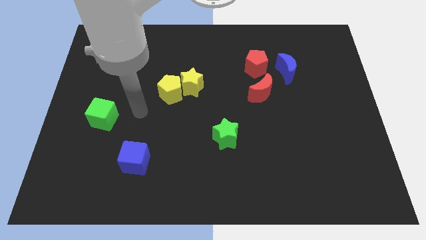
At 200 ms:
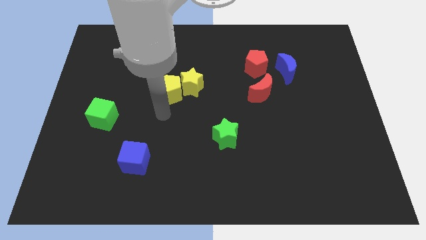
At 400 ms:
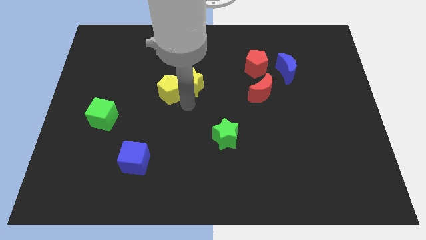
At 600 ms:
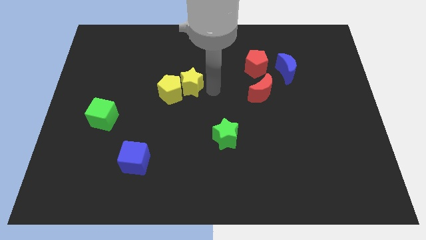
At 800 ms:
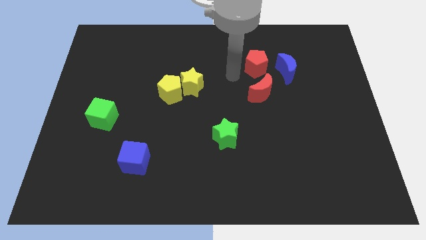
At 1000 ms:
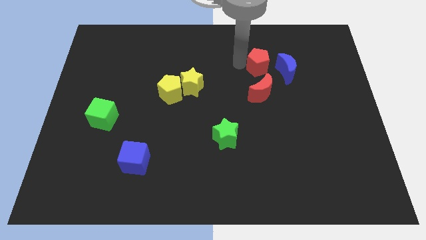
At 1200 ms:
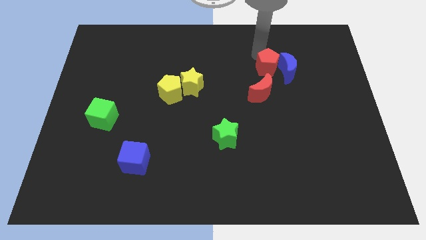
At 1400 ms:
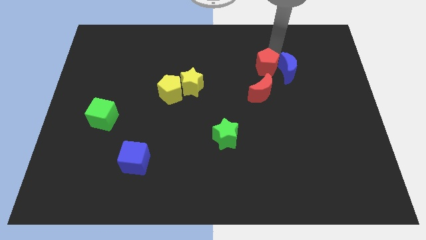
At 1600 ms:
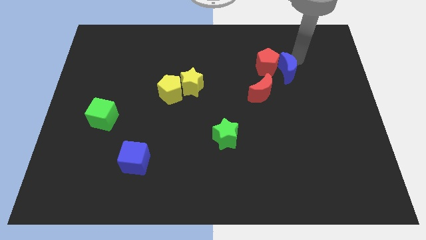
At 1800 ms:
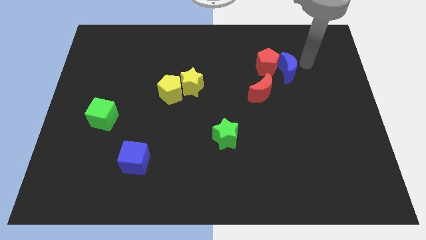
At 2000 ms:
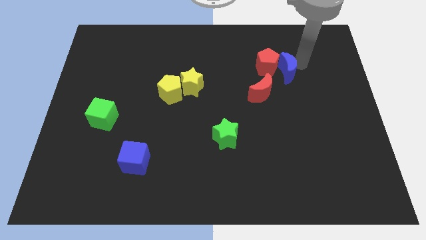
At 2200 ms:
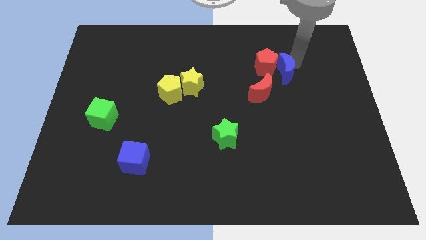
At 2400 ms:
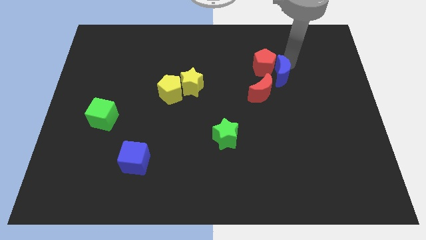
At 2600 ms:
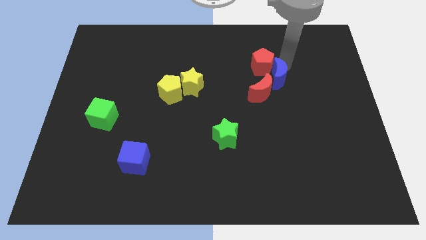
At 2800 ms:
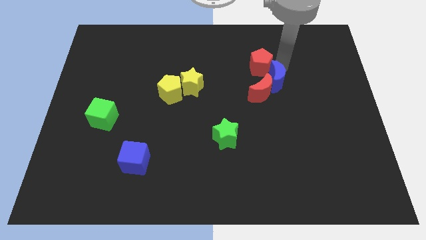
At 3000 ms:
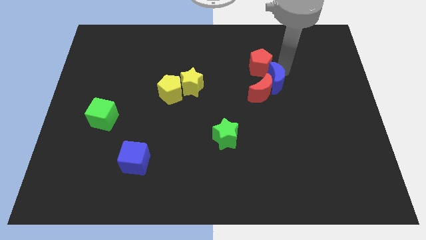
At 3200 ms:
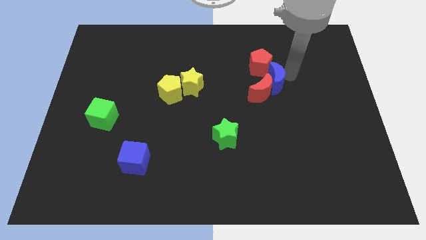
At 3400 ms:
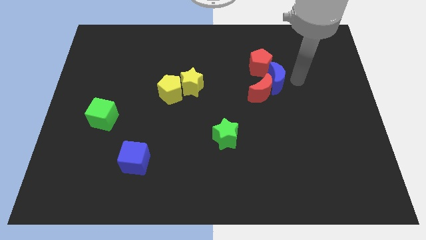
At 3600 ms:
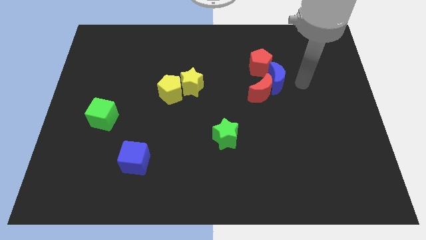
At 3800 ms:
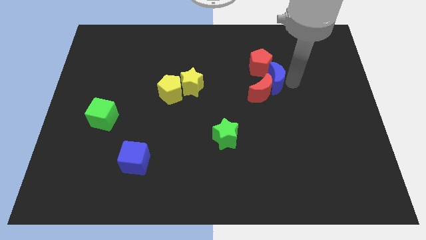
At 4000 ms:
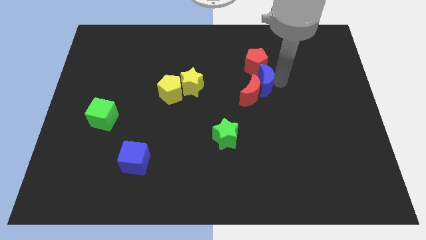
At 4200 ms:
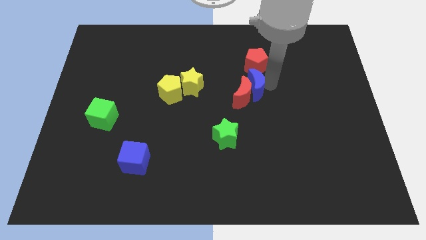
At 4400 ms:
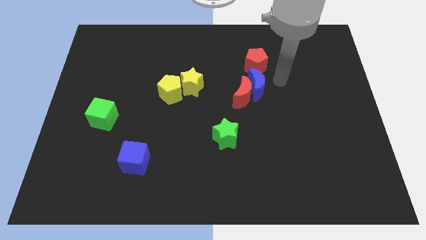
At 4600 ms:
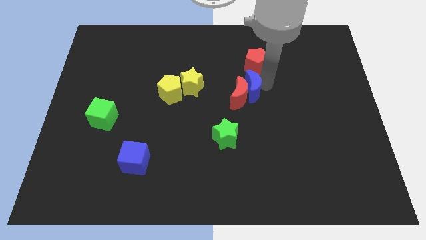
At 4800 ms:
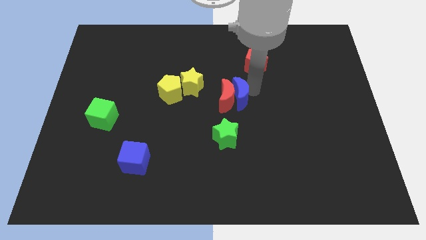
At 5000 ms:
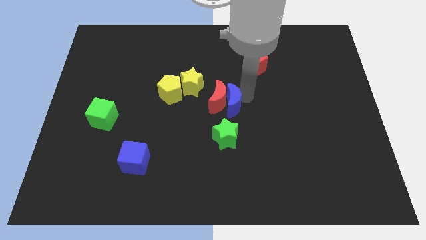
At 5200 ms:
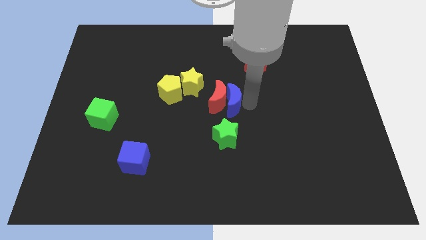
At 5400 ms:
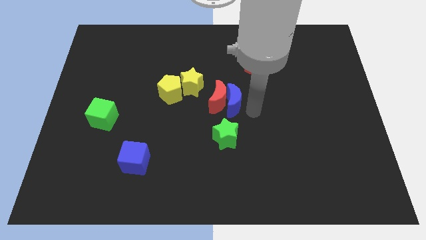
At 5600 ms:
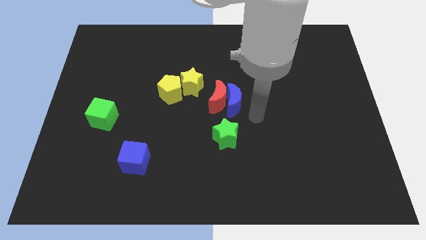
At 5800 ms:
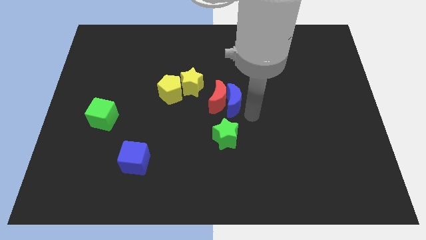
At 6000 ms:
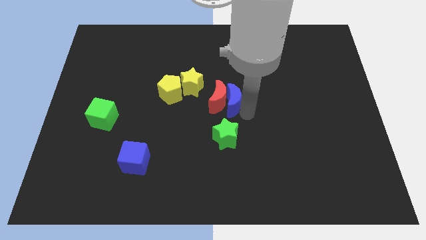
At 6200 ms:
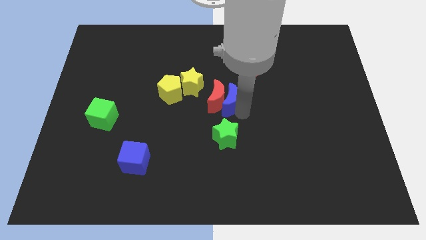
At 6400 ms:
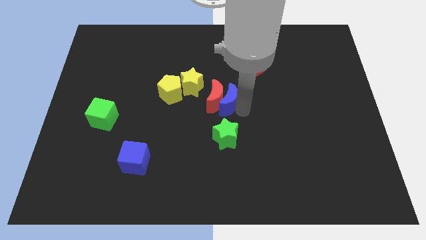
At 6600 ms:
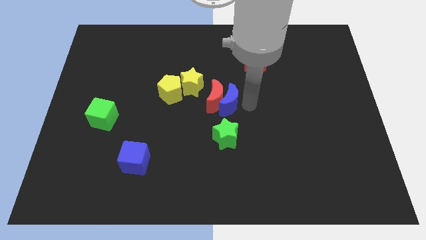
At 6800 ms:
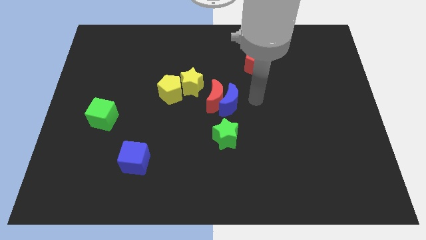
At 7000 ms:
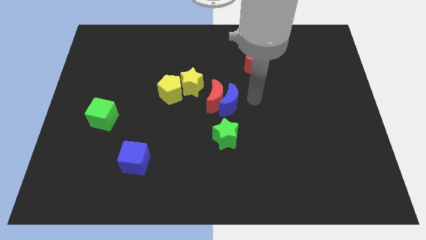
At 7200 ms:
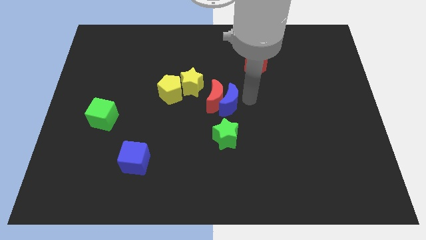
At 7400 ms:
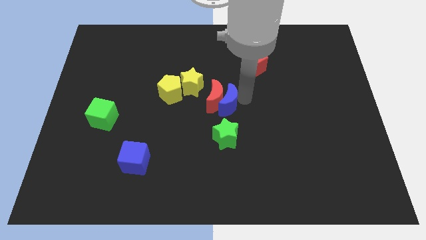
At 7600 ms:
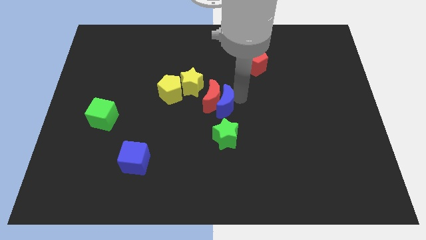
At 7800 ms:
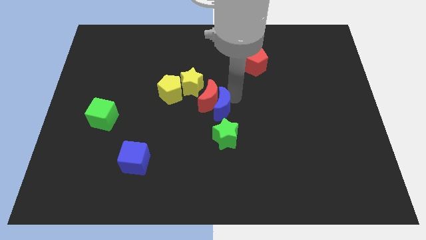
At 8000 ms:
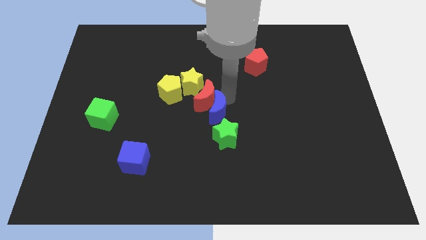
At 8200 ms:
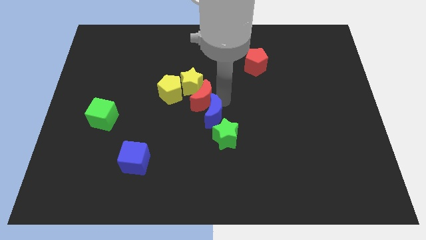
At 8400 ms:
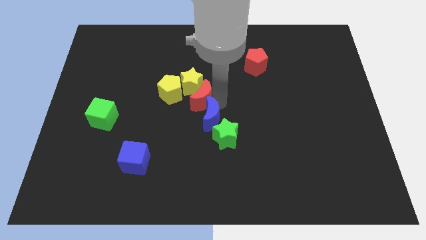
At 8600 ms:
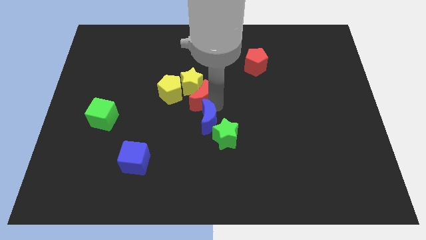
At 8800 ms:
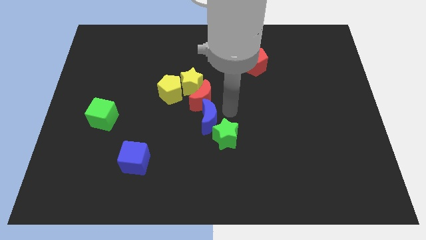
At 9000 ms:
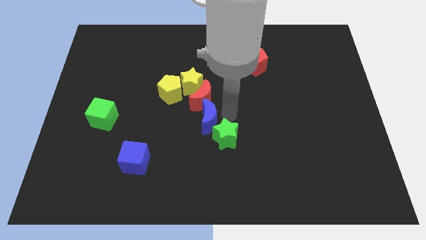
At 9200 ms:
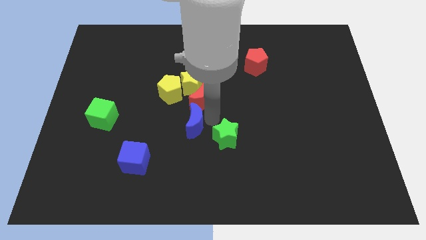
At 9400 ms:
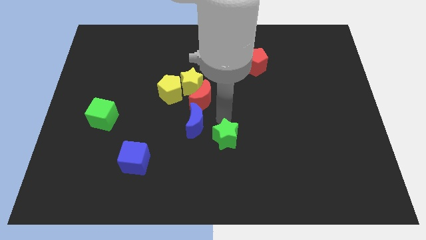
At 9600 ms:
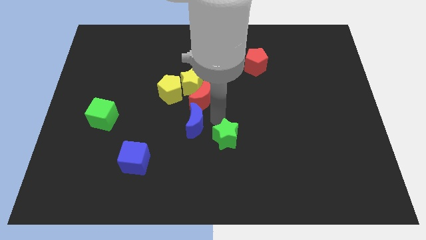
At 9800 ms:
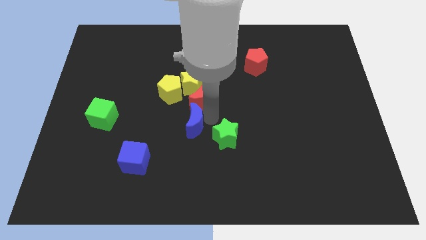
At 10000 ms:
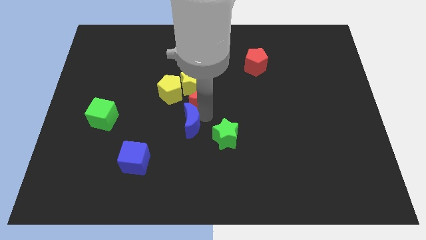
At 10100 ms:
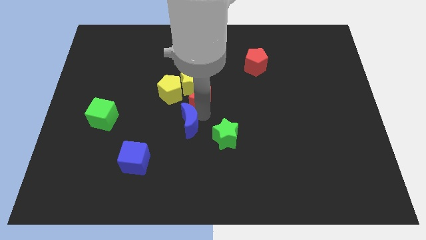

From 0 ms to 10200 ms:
push the blue moon to the bottom of the yellow pentagon

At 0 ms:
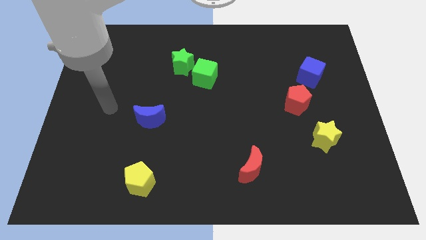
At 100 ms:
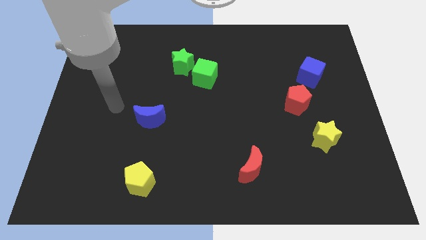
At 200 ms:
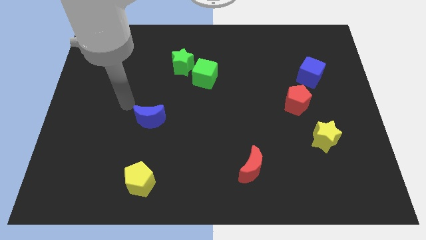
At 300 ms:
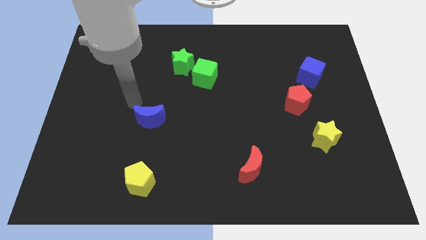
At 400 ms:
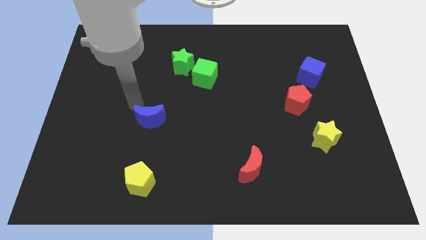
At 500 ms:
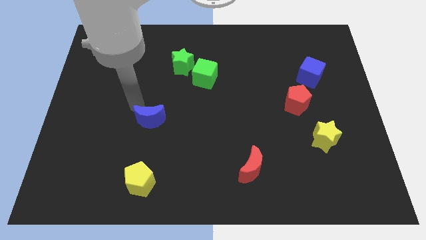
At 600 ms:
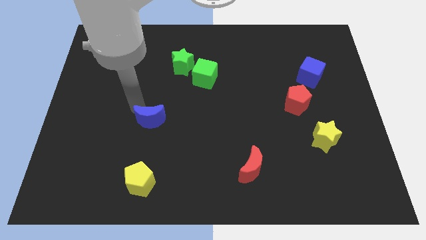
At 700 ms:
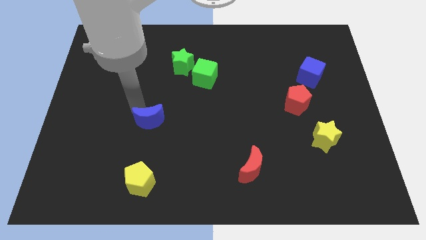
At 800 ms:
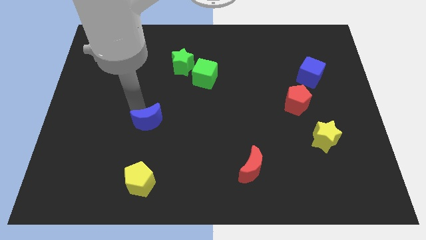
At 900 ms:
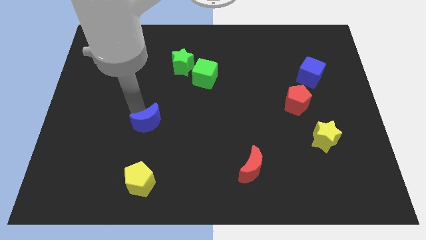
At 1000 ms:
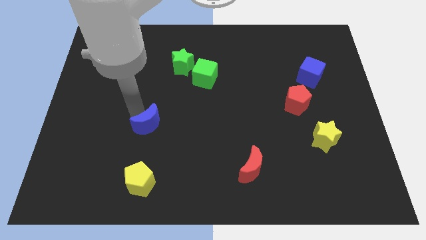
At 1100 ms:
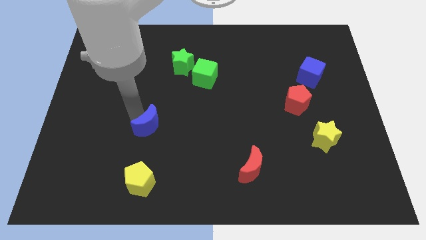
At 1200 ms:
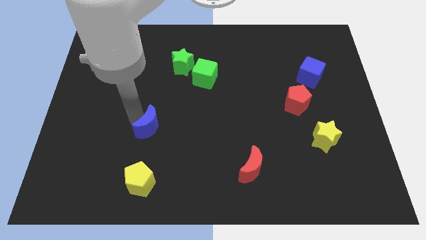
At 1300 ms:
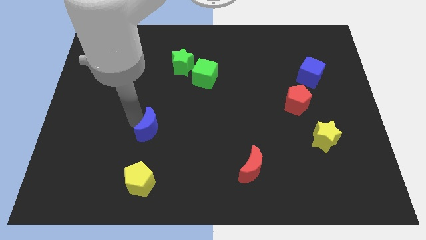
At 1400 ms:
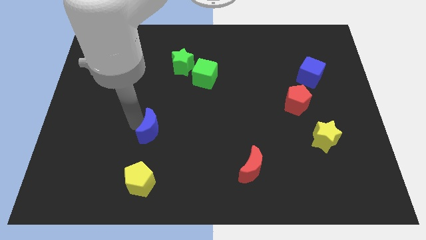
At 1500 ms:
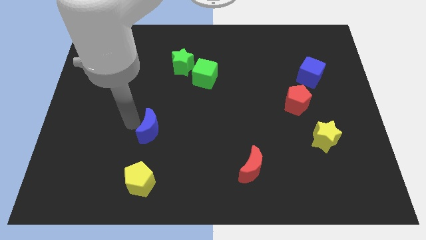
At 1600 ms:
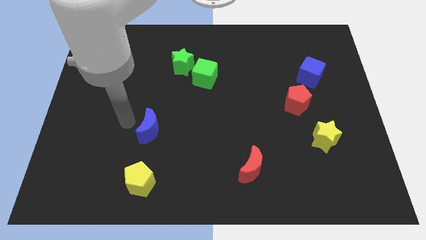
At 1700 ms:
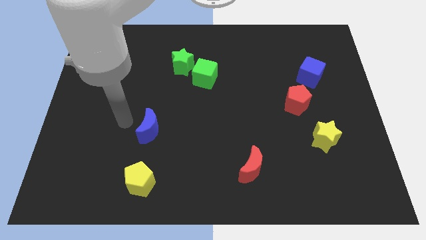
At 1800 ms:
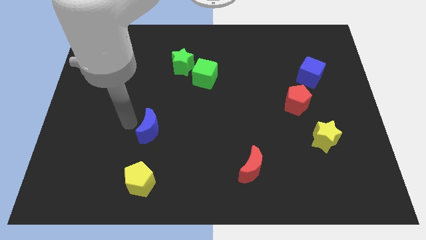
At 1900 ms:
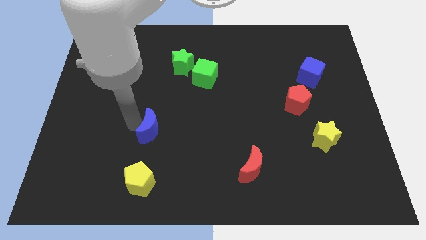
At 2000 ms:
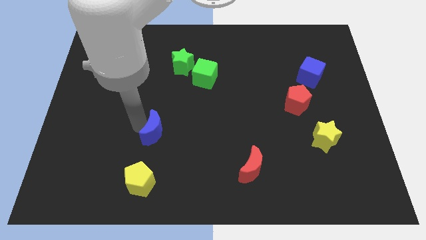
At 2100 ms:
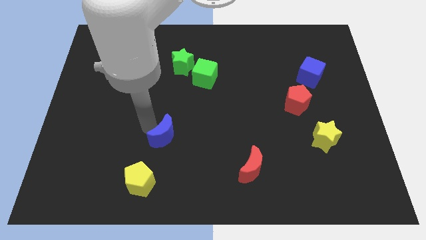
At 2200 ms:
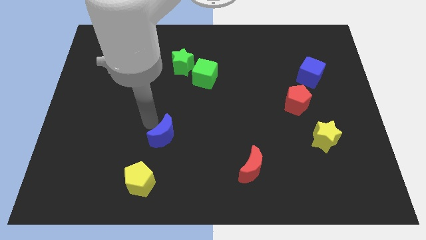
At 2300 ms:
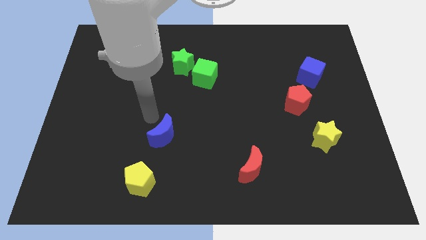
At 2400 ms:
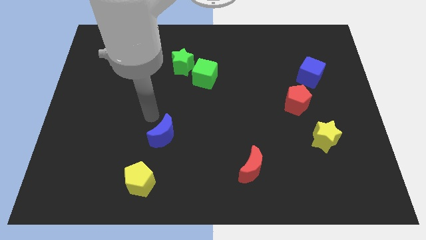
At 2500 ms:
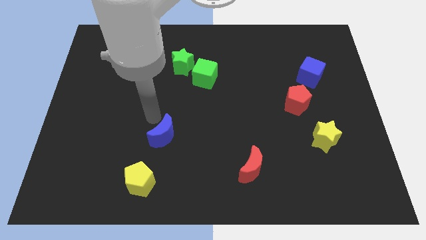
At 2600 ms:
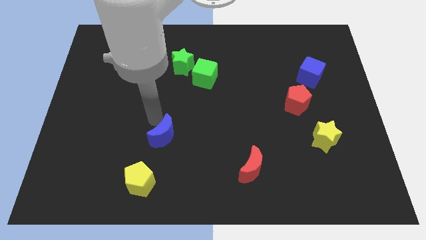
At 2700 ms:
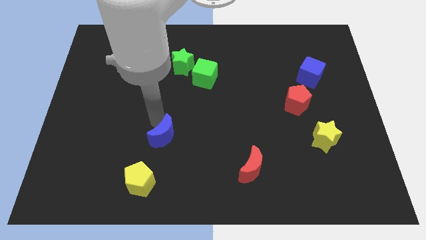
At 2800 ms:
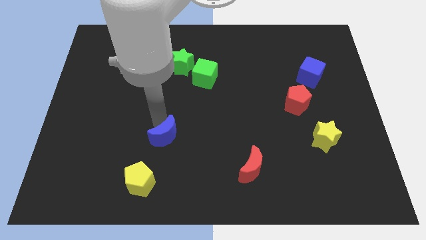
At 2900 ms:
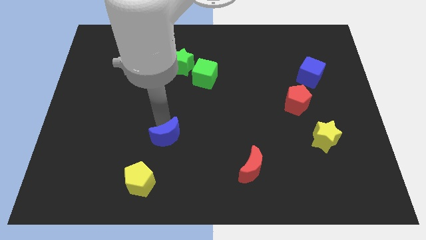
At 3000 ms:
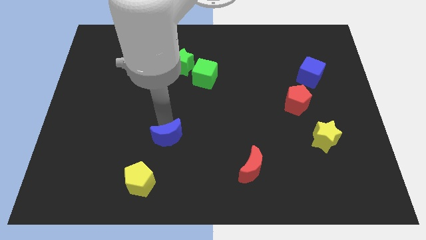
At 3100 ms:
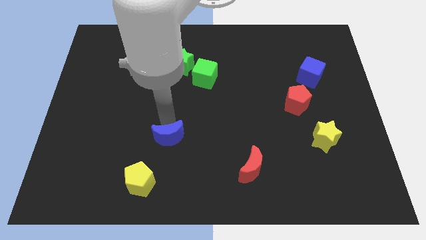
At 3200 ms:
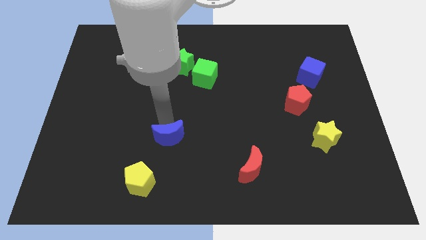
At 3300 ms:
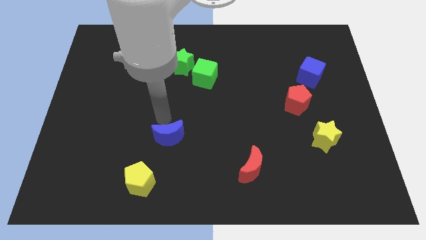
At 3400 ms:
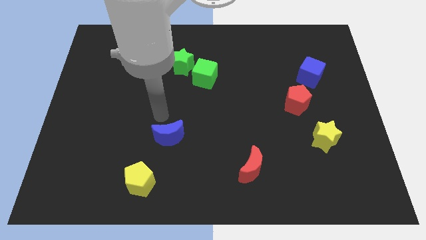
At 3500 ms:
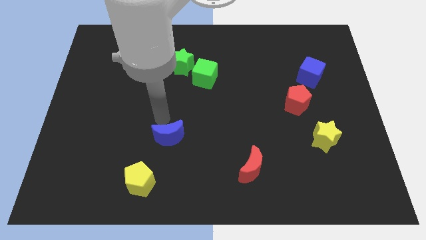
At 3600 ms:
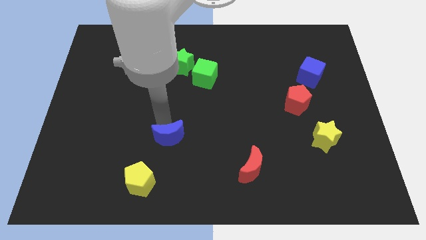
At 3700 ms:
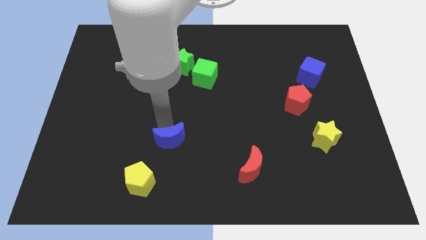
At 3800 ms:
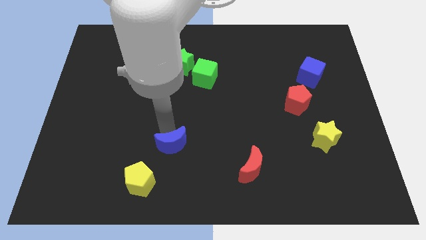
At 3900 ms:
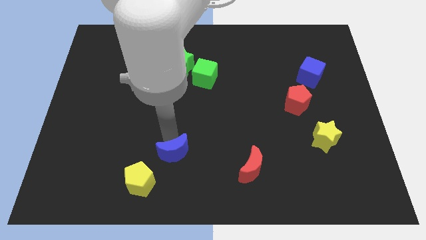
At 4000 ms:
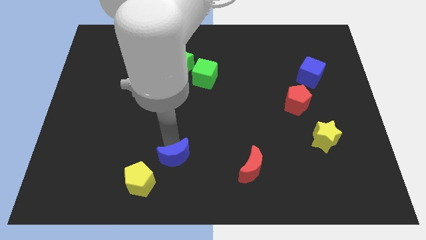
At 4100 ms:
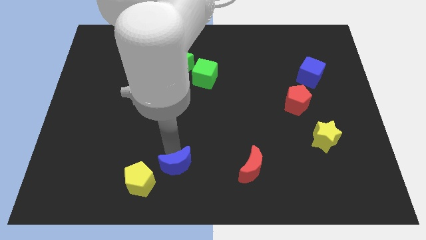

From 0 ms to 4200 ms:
put the blue moon just right of the yellow pentagon
